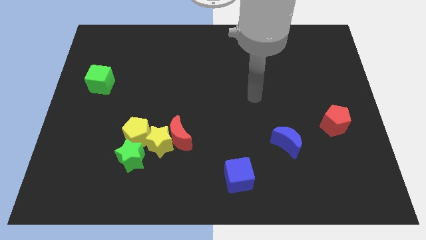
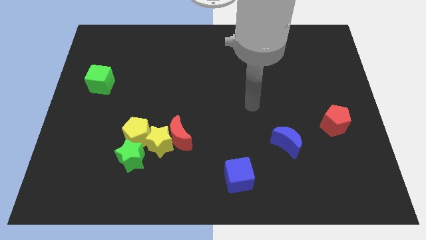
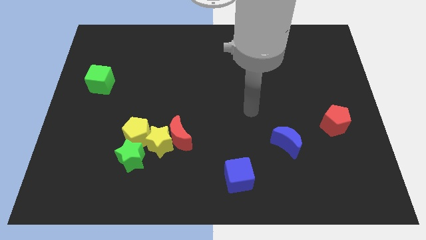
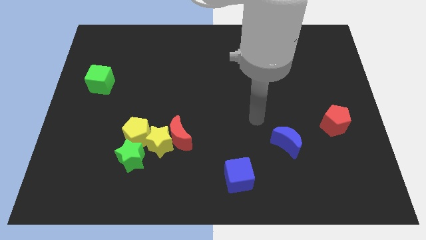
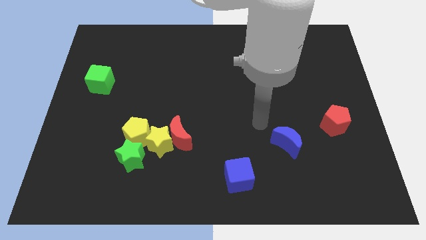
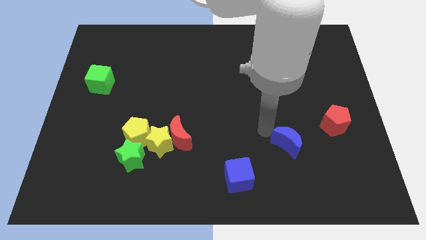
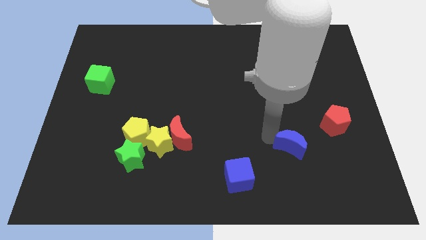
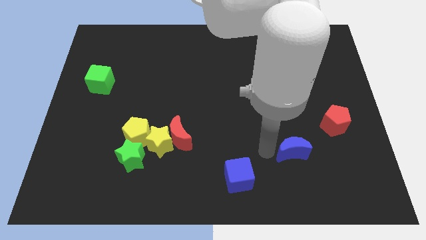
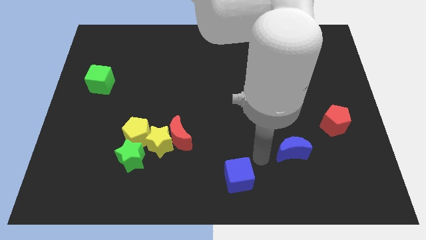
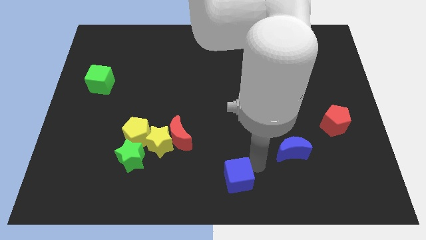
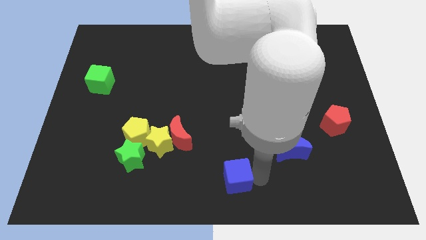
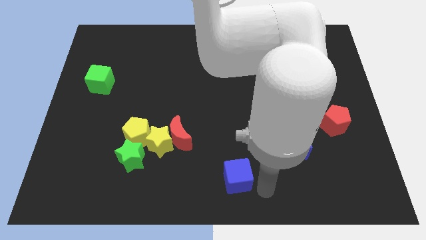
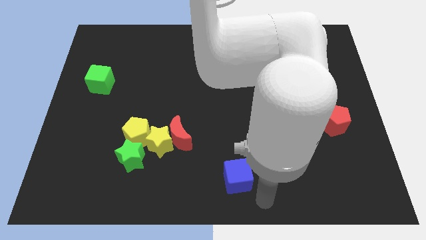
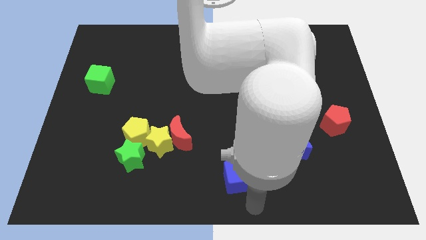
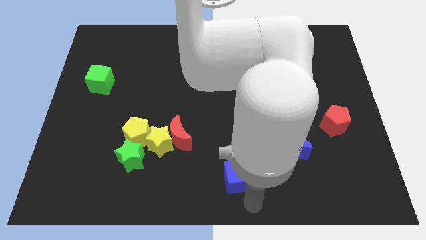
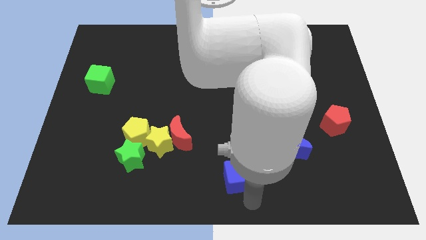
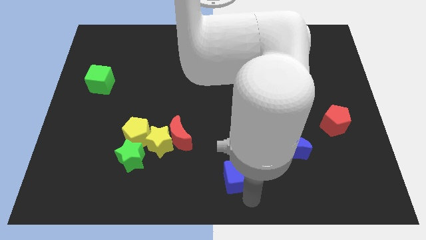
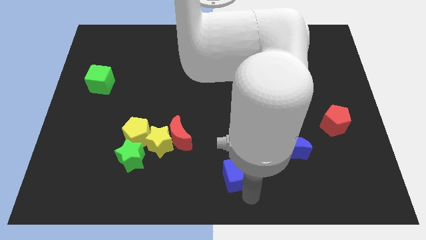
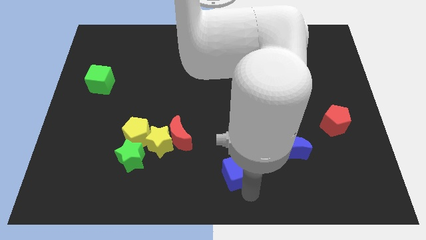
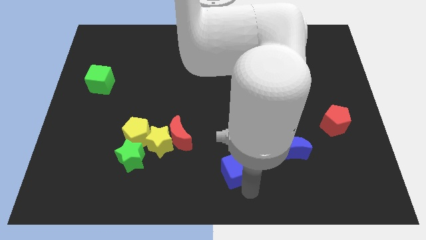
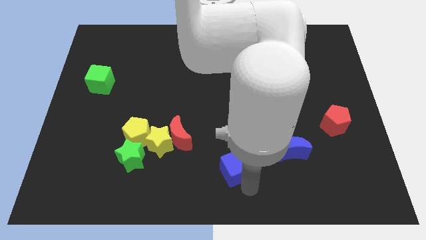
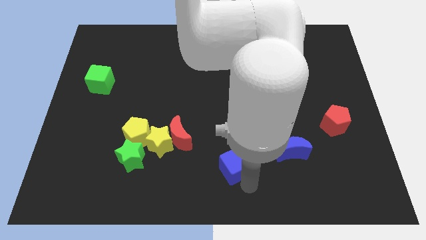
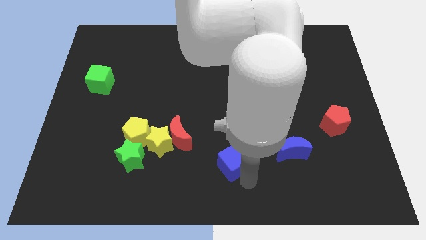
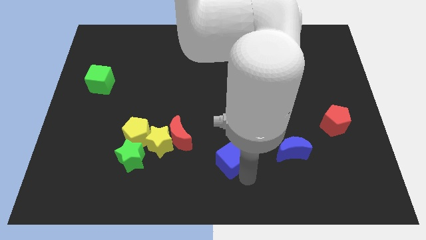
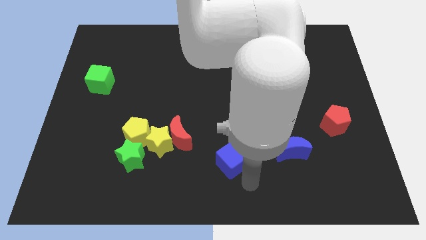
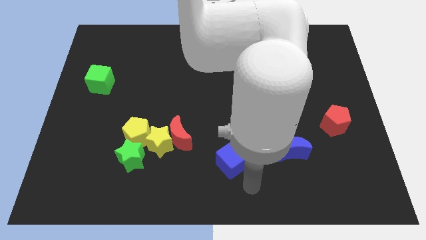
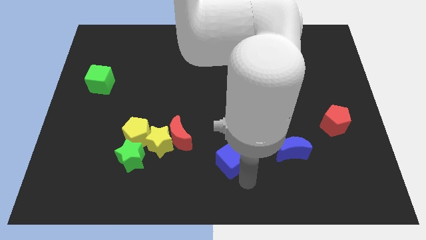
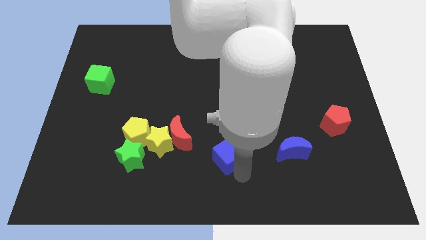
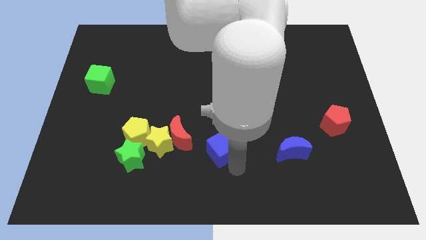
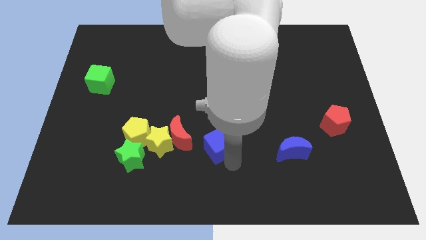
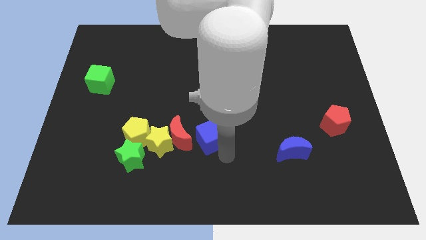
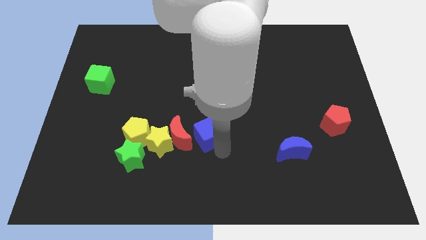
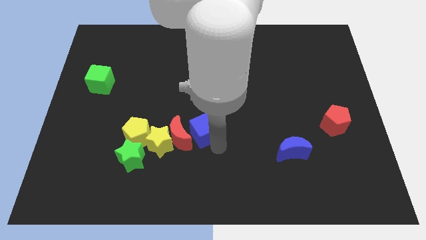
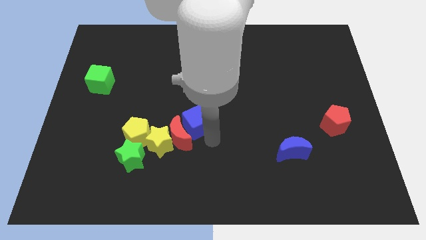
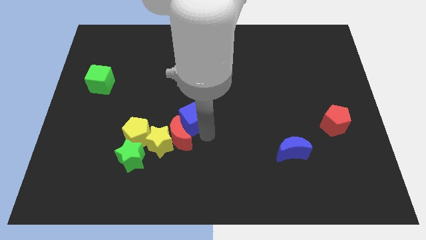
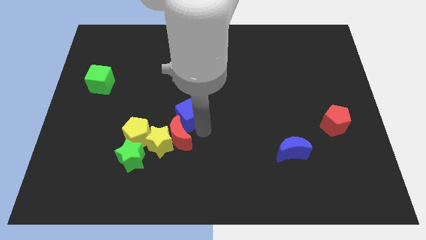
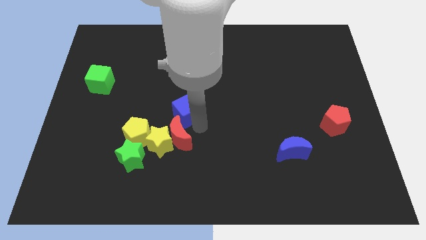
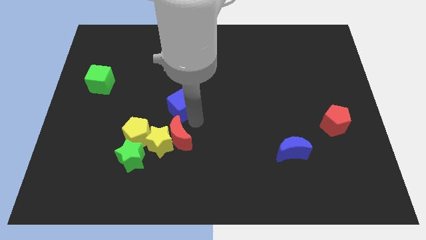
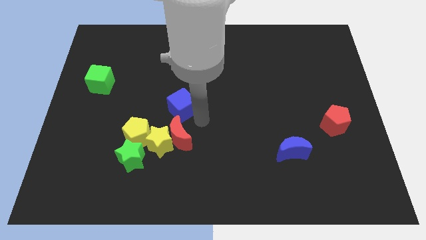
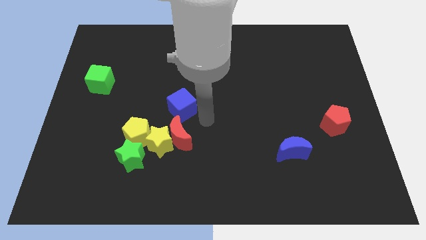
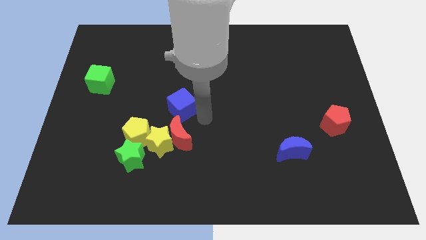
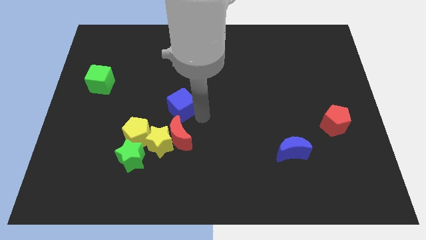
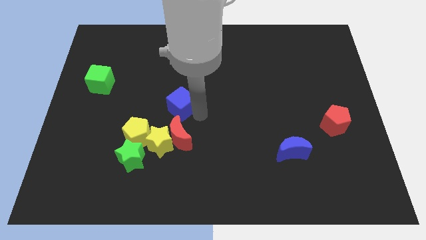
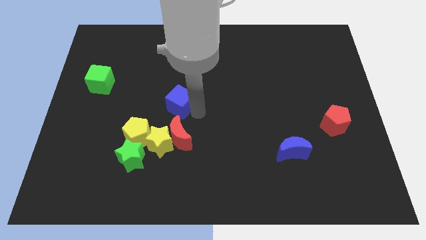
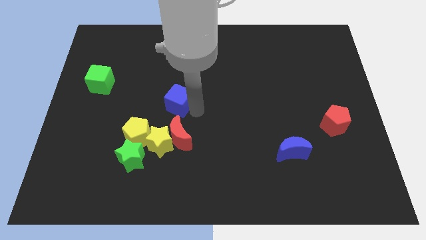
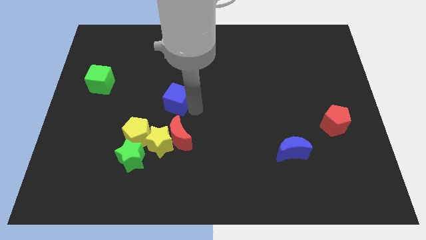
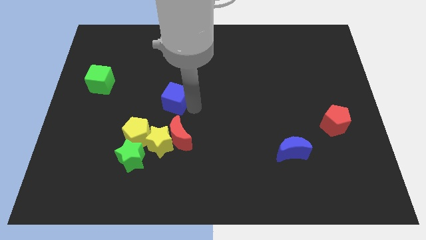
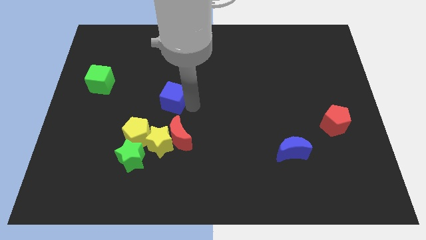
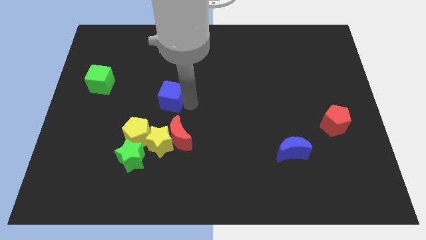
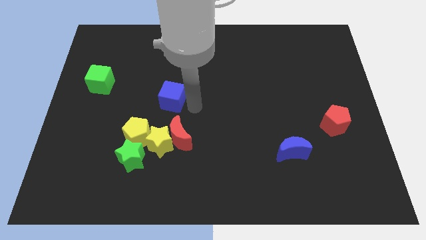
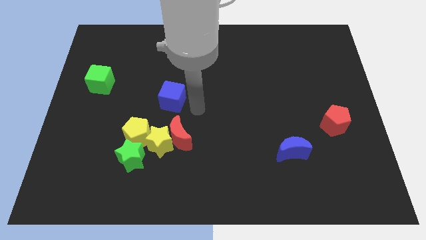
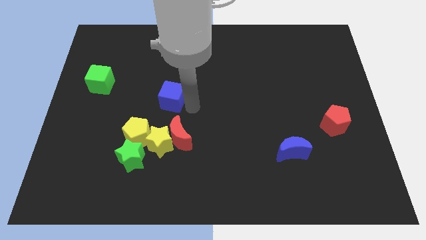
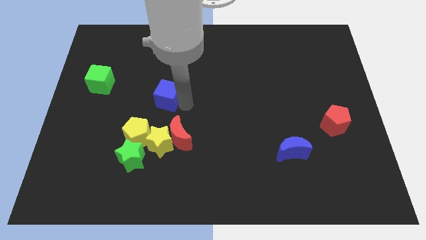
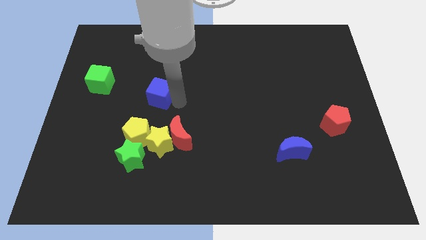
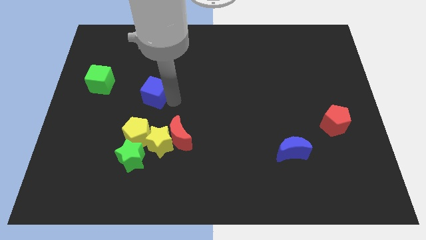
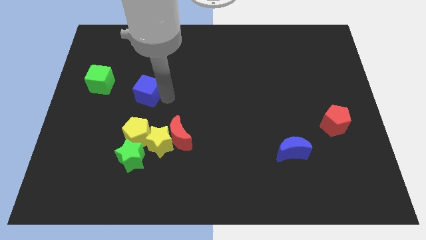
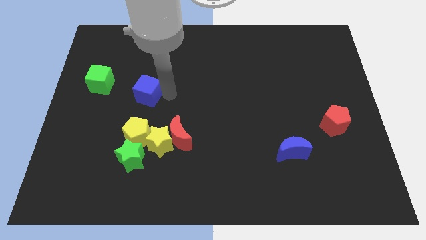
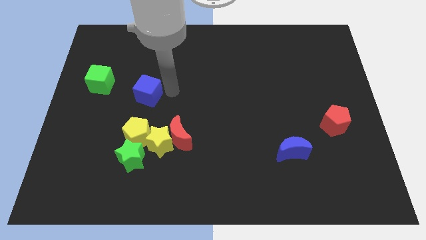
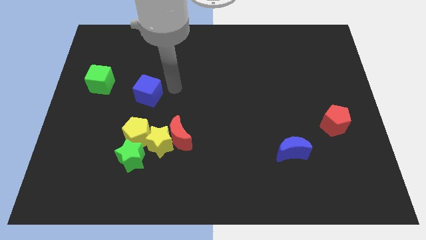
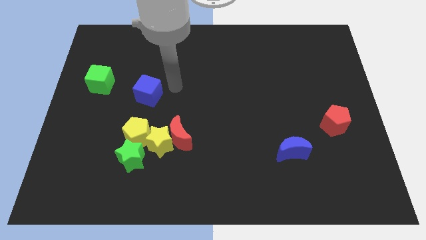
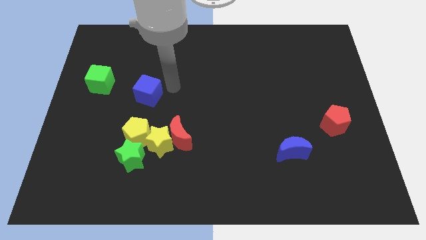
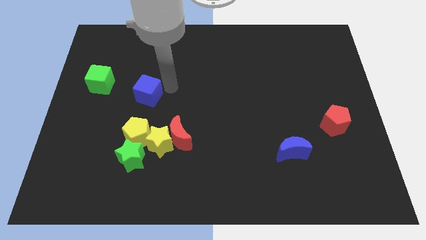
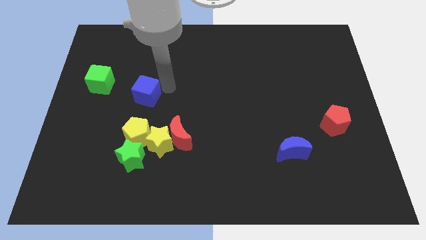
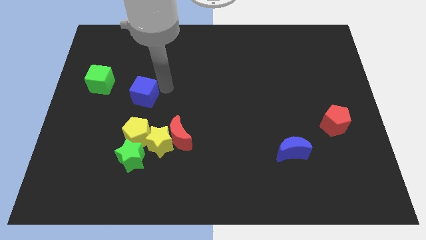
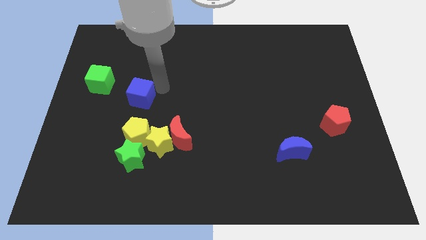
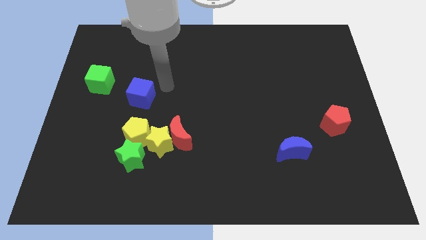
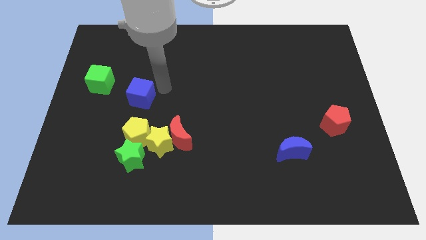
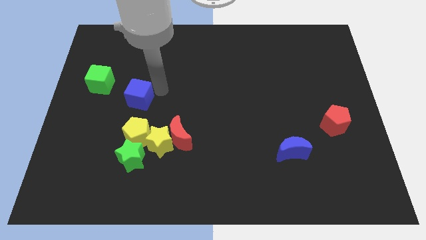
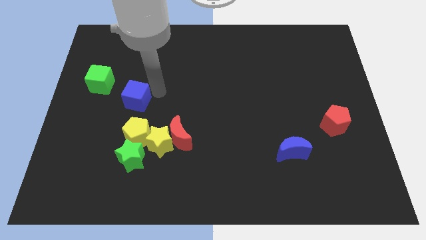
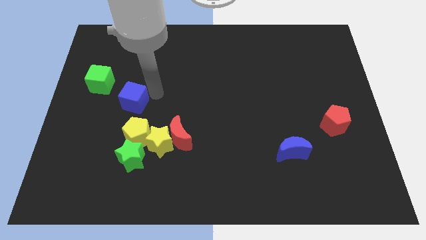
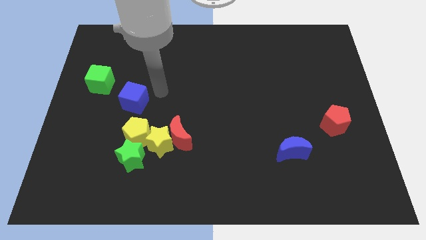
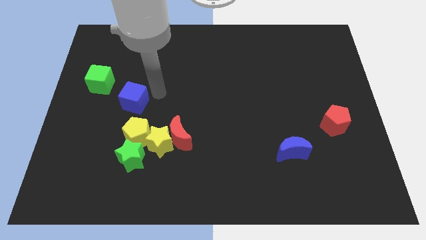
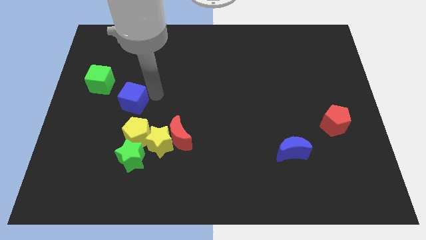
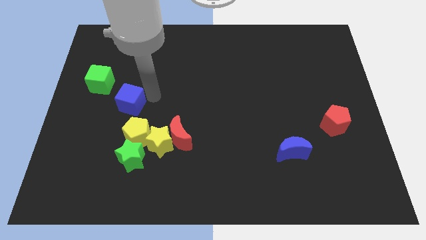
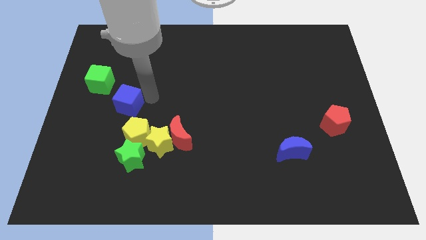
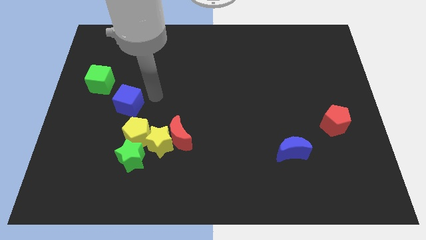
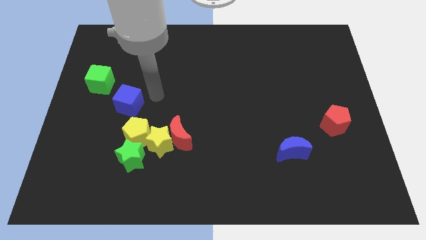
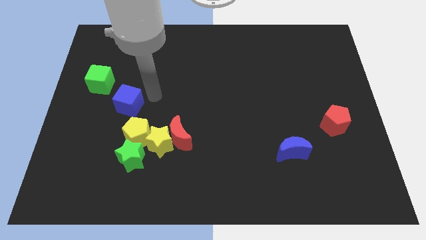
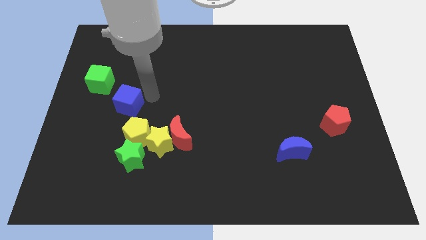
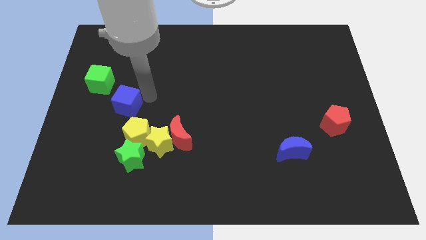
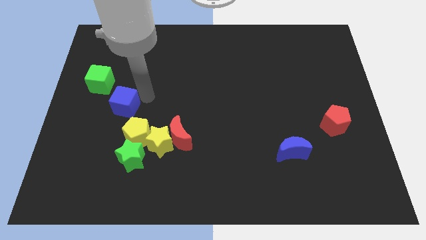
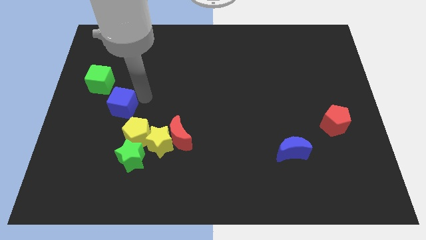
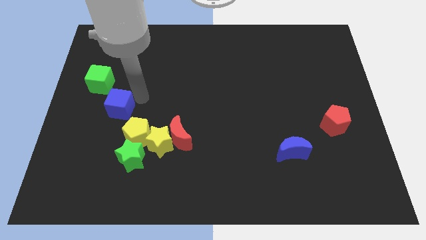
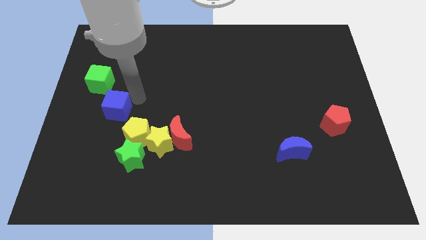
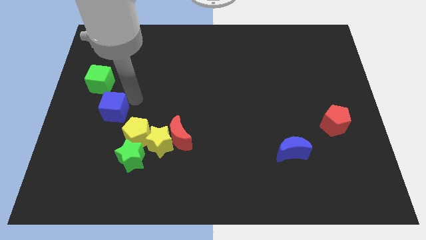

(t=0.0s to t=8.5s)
move the blue cube below the green cube
